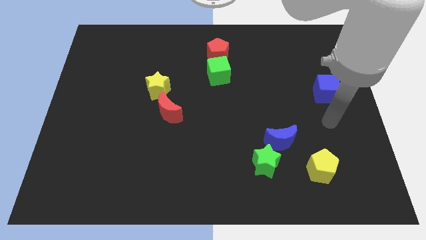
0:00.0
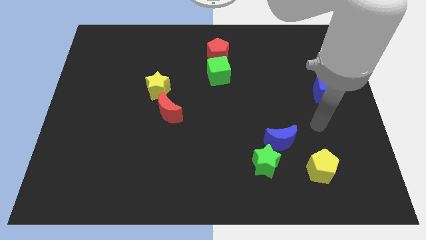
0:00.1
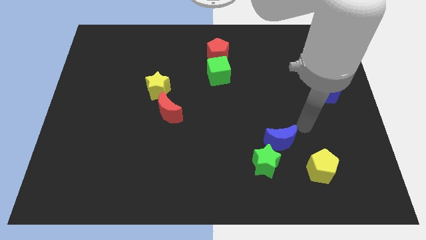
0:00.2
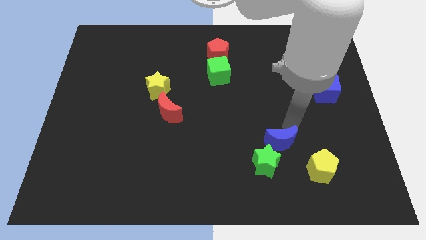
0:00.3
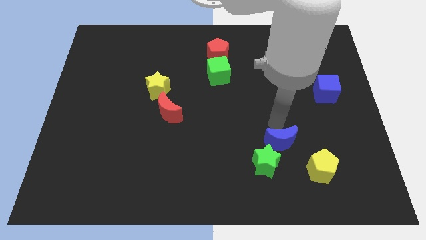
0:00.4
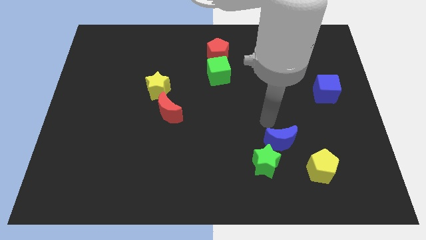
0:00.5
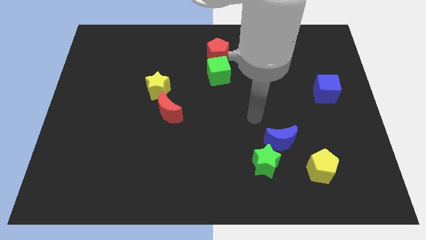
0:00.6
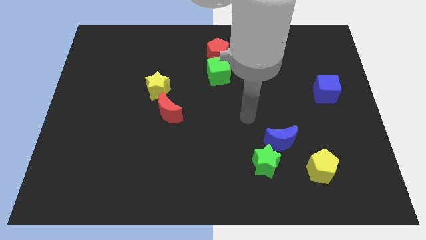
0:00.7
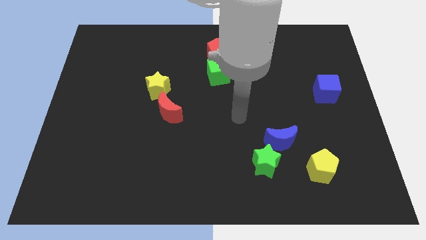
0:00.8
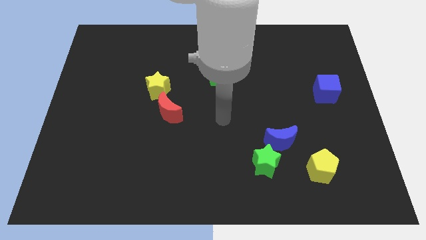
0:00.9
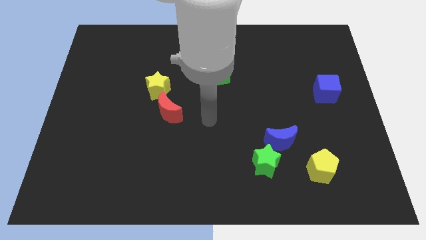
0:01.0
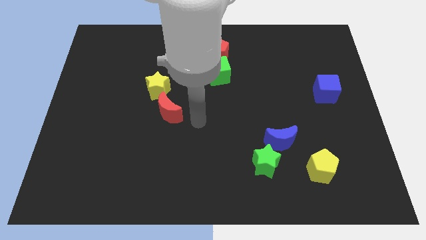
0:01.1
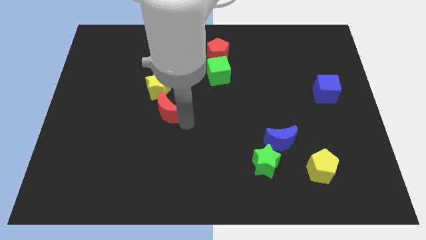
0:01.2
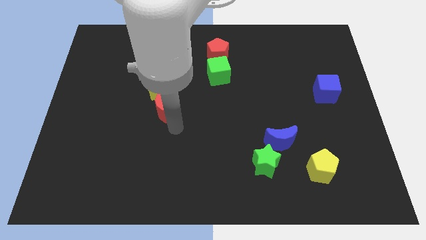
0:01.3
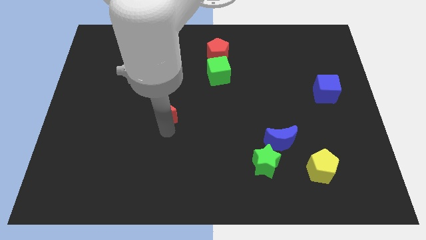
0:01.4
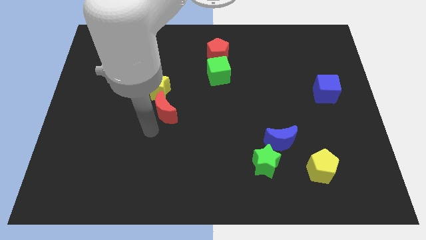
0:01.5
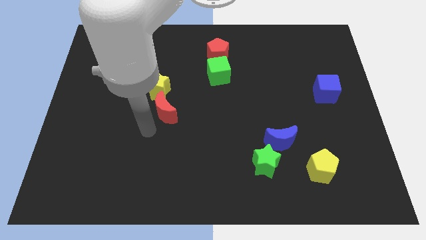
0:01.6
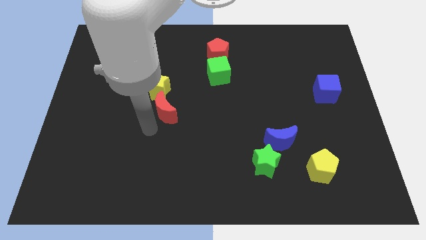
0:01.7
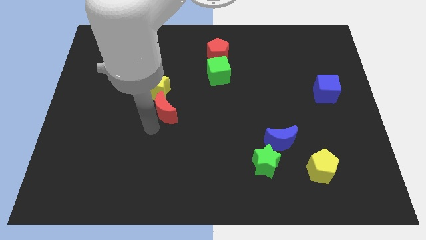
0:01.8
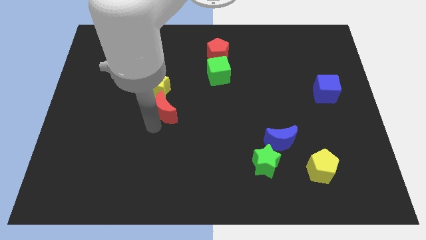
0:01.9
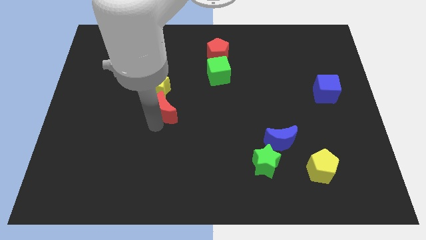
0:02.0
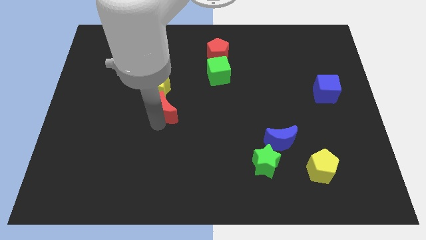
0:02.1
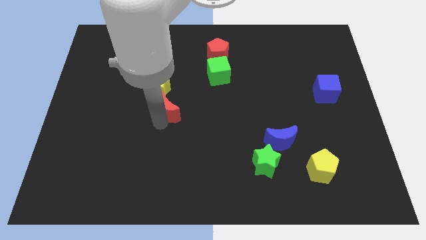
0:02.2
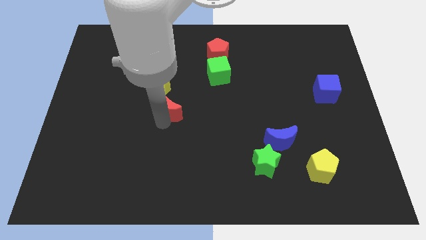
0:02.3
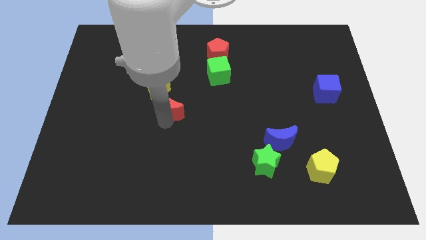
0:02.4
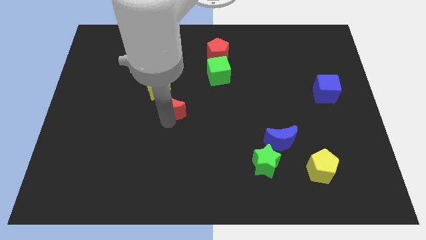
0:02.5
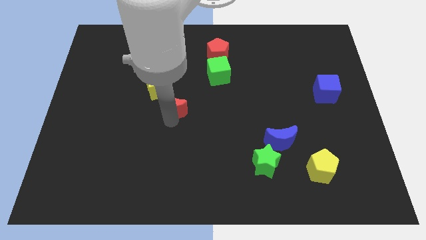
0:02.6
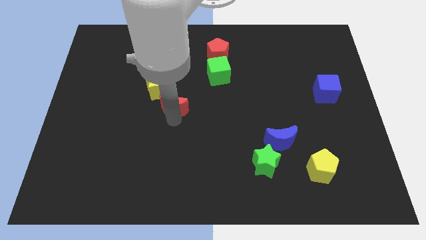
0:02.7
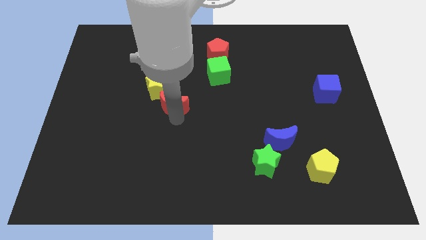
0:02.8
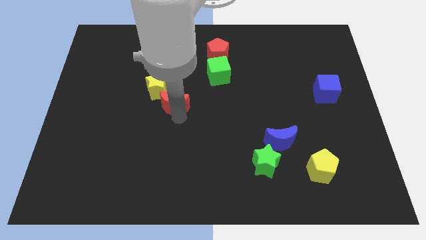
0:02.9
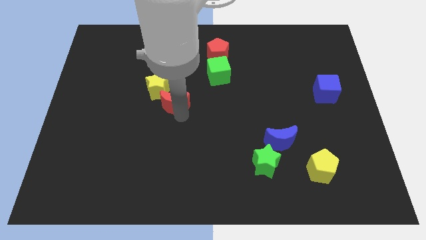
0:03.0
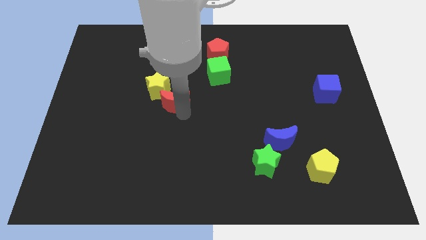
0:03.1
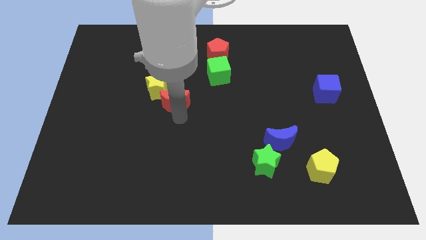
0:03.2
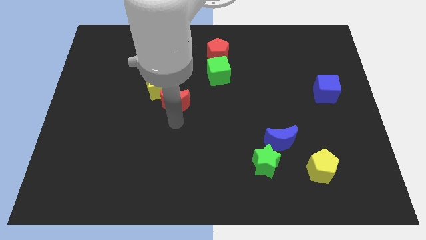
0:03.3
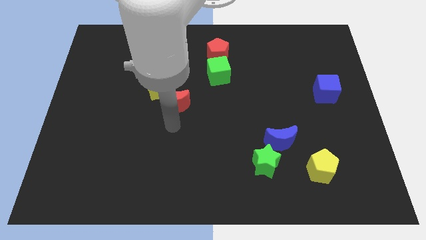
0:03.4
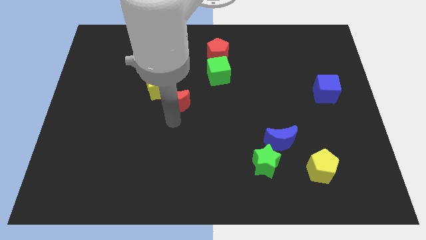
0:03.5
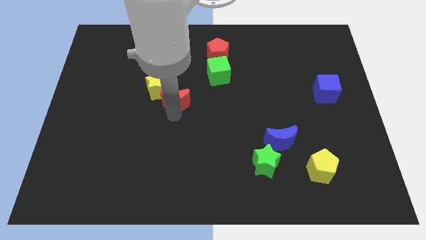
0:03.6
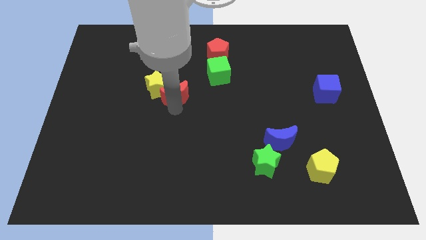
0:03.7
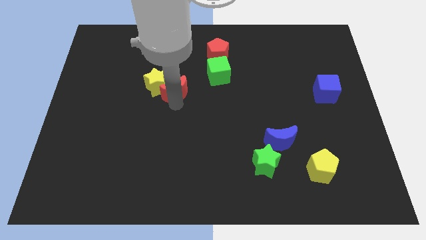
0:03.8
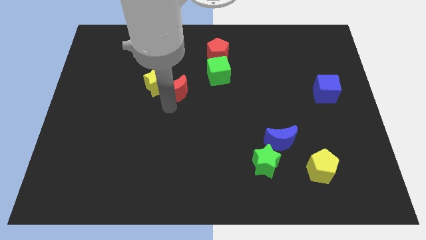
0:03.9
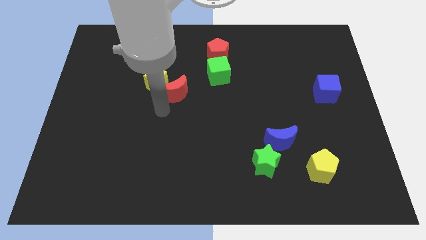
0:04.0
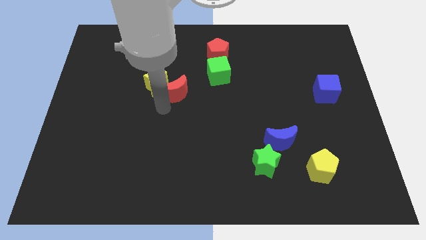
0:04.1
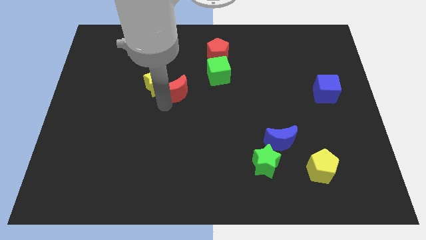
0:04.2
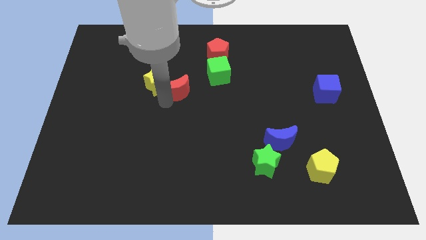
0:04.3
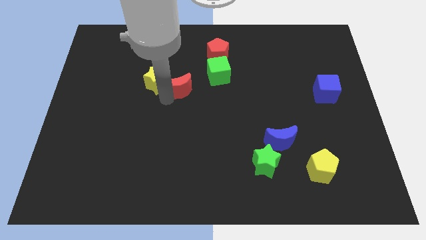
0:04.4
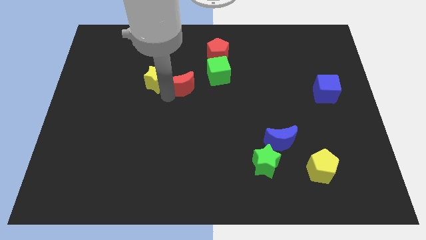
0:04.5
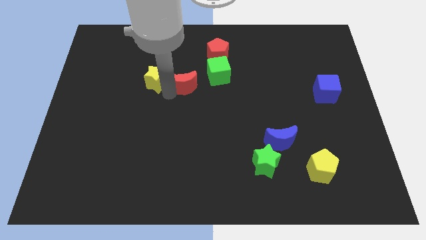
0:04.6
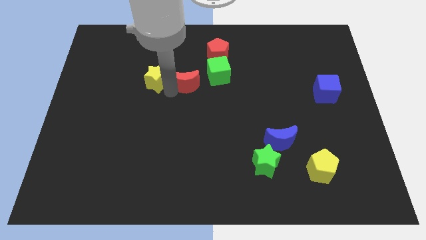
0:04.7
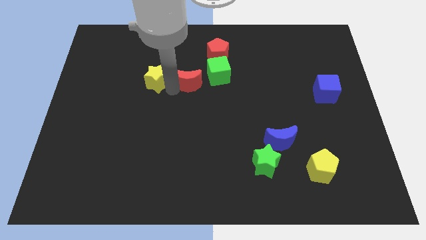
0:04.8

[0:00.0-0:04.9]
push the red moon to the bottom left side of the red pentagon

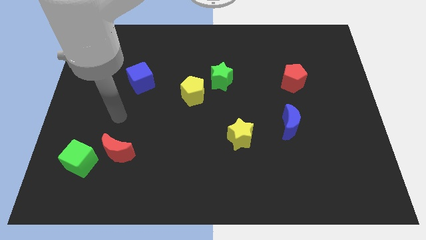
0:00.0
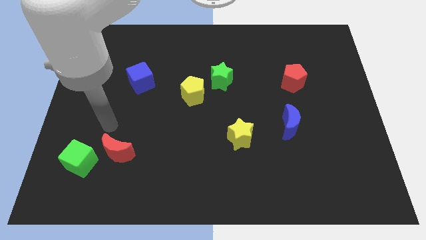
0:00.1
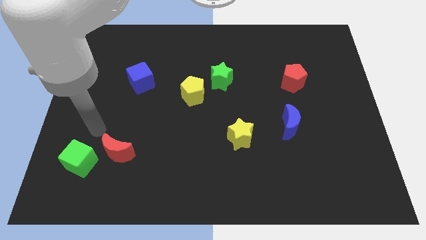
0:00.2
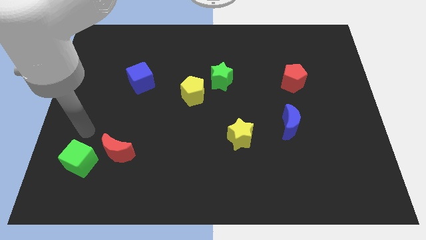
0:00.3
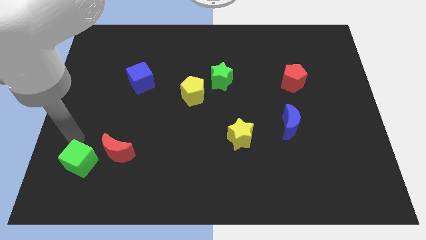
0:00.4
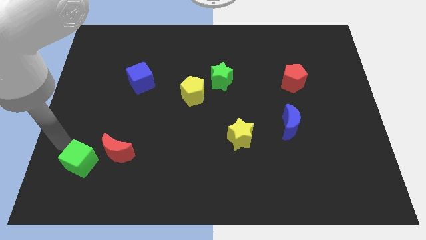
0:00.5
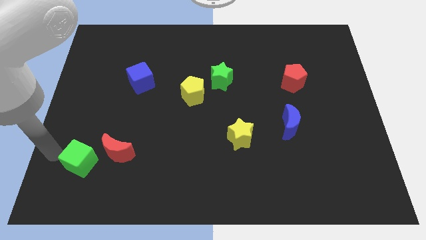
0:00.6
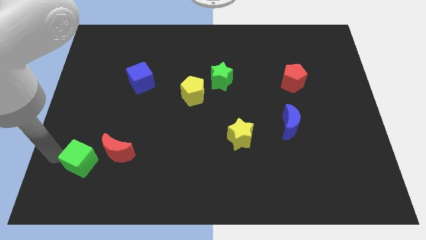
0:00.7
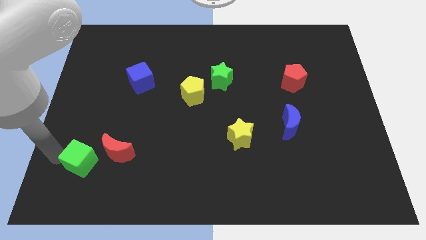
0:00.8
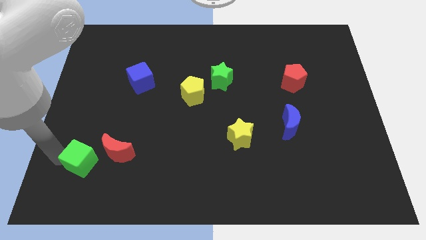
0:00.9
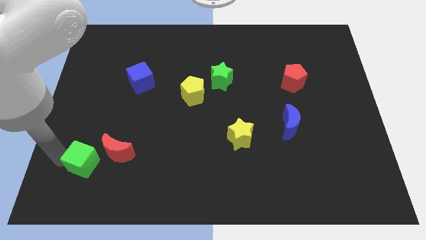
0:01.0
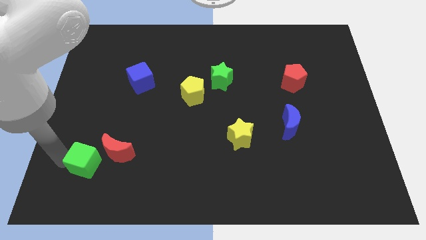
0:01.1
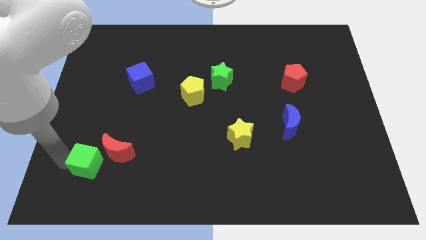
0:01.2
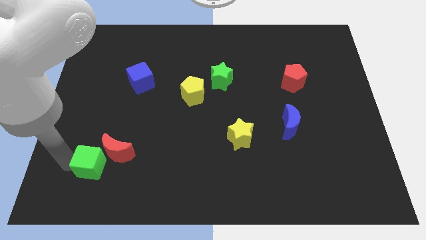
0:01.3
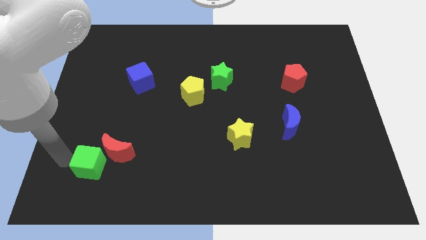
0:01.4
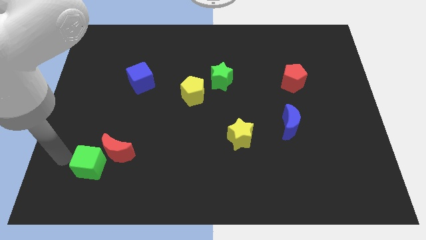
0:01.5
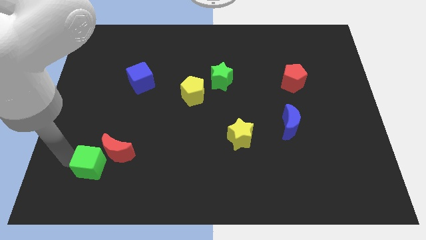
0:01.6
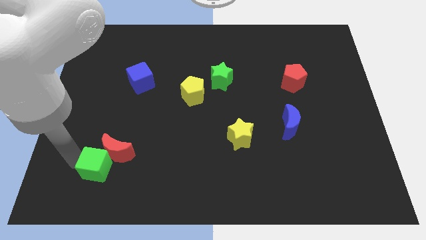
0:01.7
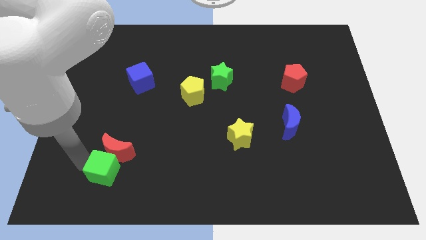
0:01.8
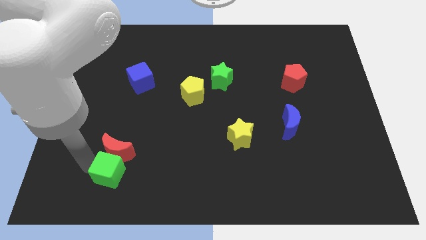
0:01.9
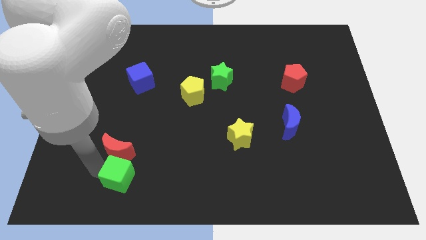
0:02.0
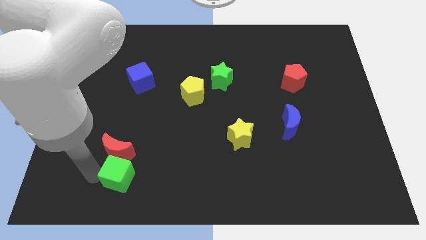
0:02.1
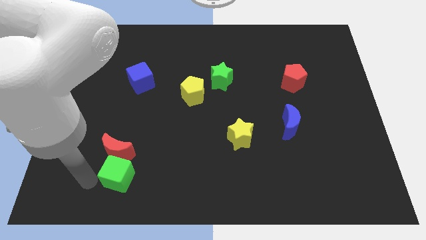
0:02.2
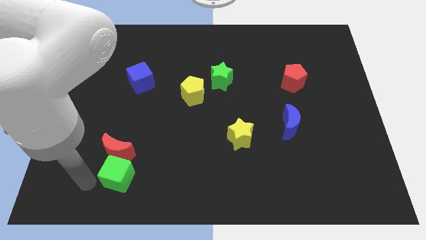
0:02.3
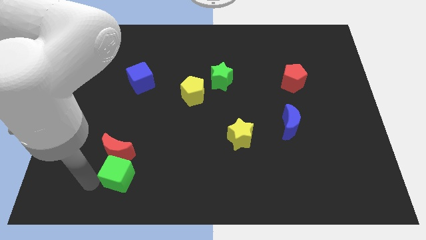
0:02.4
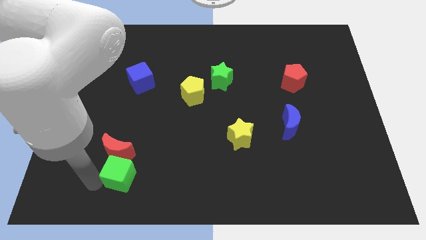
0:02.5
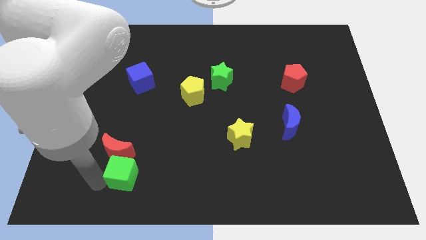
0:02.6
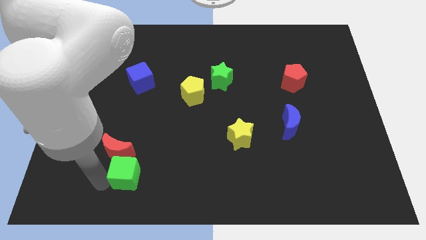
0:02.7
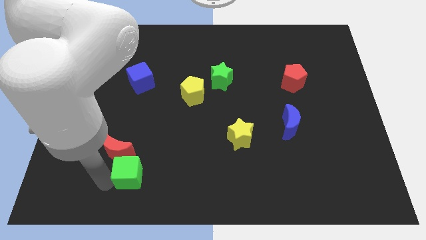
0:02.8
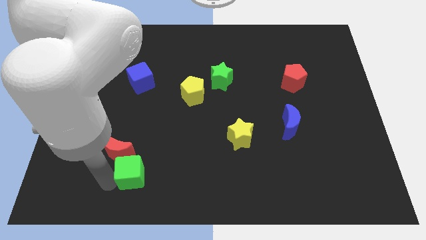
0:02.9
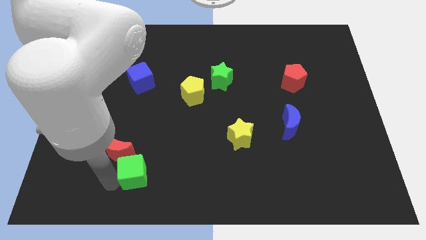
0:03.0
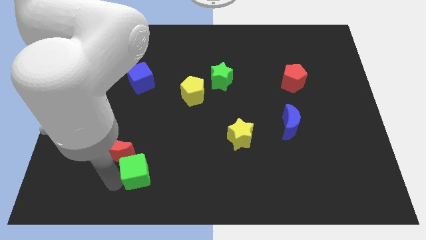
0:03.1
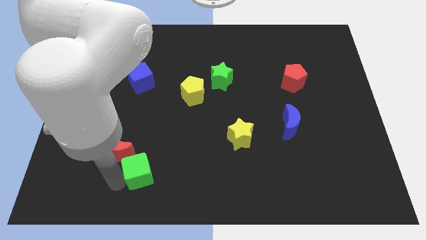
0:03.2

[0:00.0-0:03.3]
push the green cube right of the red moon
